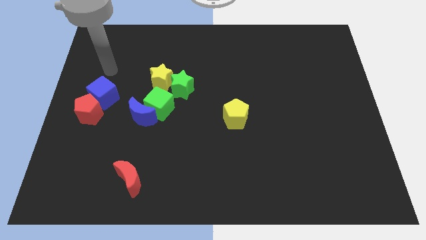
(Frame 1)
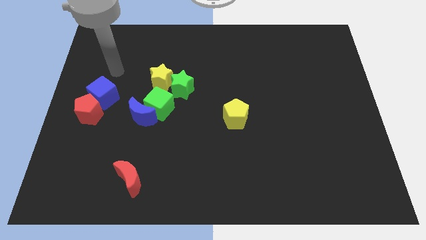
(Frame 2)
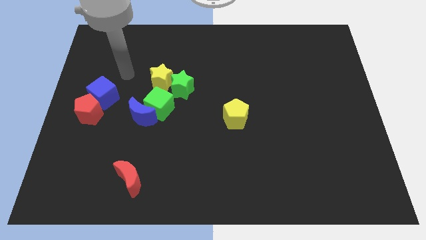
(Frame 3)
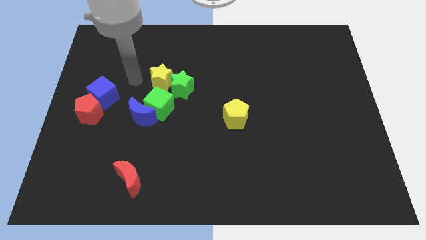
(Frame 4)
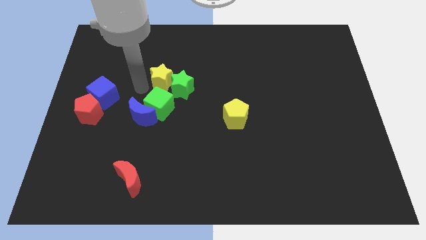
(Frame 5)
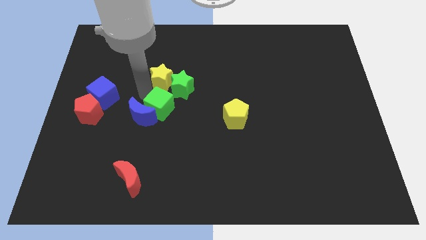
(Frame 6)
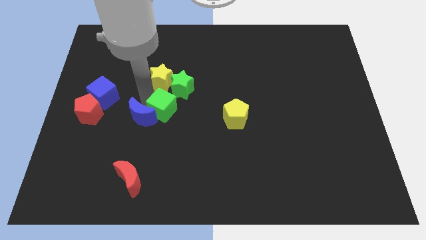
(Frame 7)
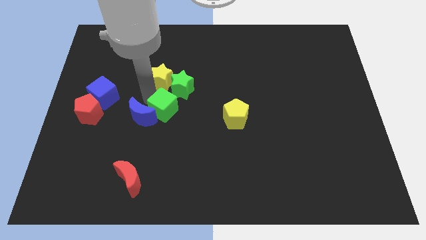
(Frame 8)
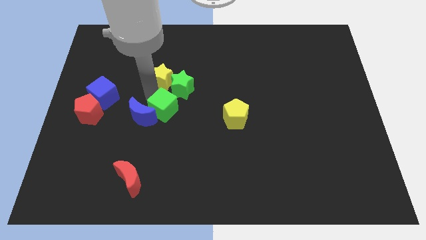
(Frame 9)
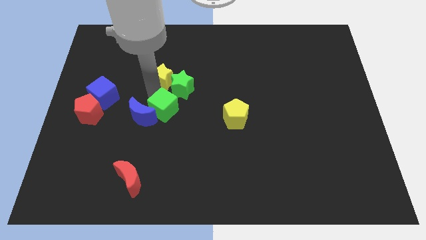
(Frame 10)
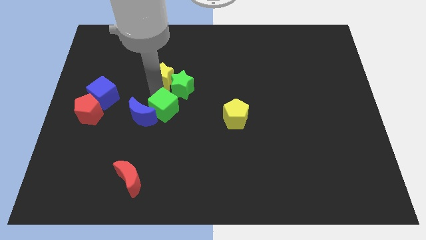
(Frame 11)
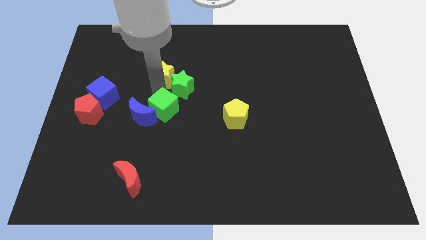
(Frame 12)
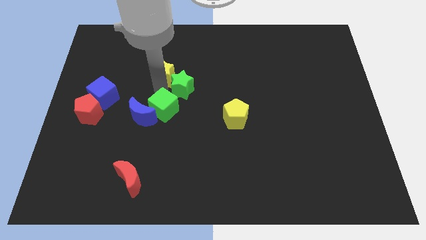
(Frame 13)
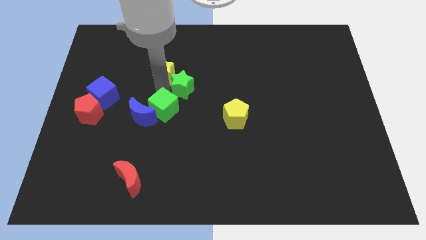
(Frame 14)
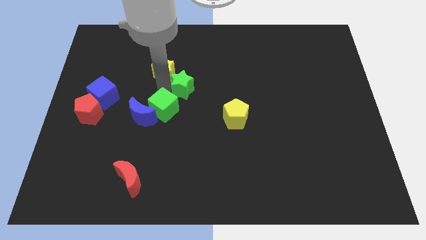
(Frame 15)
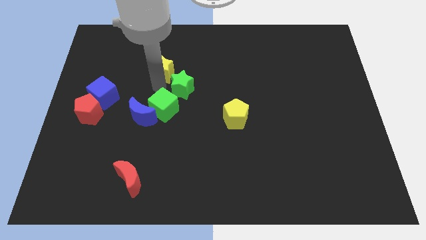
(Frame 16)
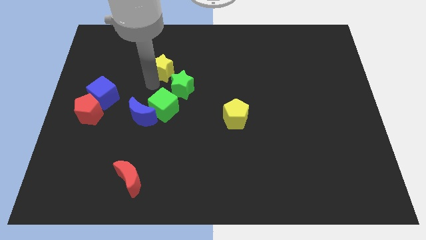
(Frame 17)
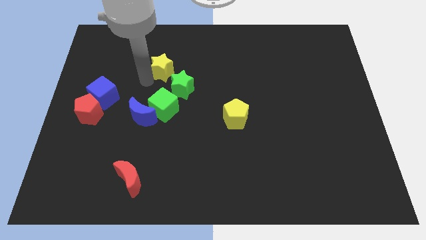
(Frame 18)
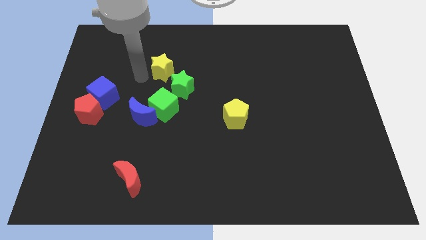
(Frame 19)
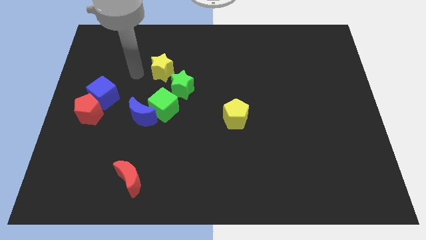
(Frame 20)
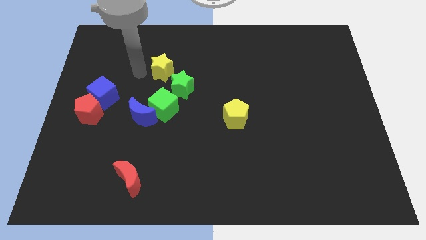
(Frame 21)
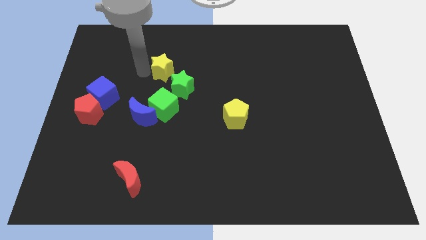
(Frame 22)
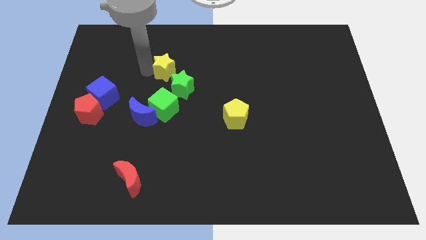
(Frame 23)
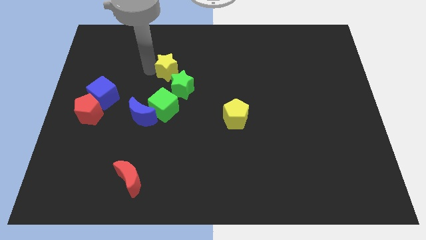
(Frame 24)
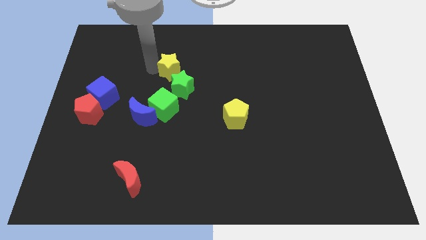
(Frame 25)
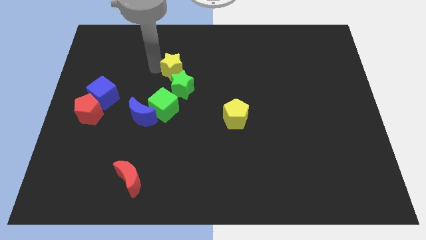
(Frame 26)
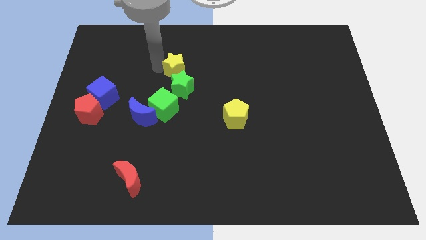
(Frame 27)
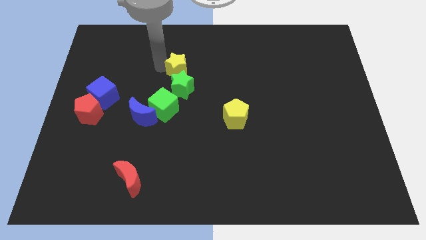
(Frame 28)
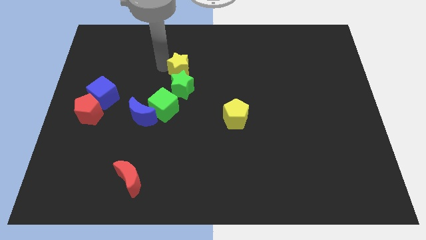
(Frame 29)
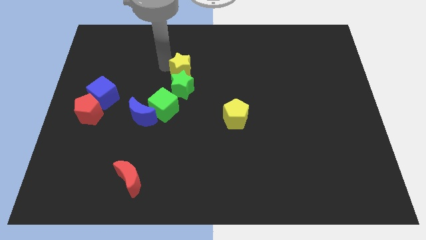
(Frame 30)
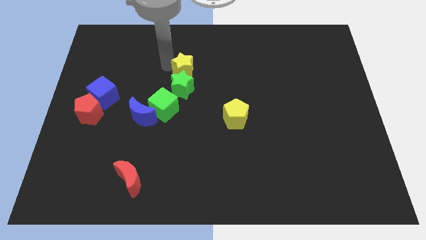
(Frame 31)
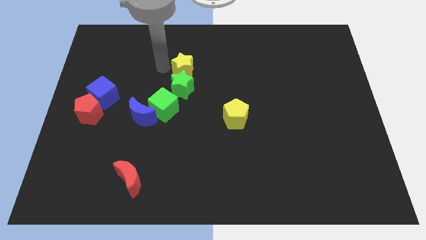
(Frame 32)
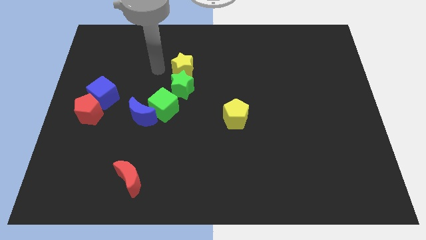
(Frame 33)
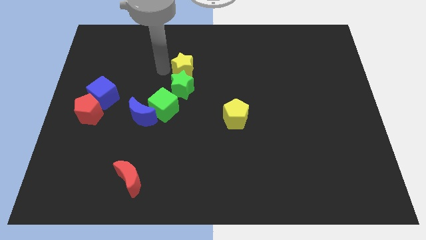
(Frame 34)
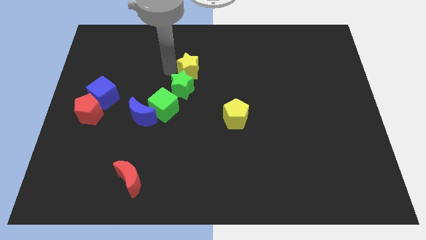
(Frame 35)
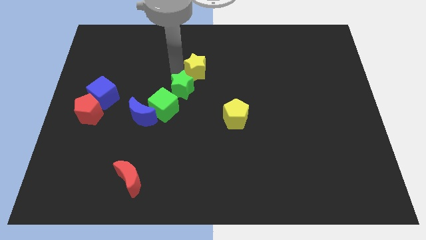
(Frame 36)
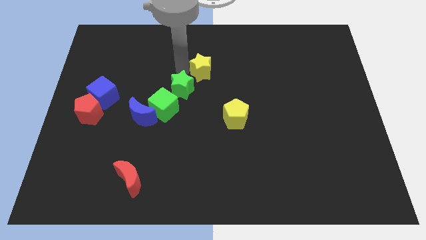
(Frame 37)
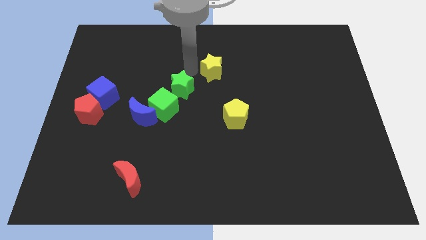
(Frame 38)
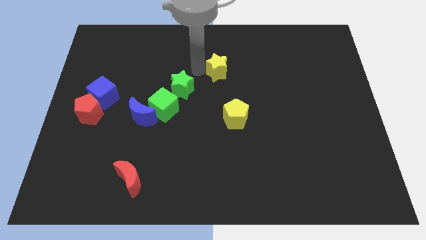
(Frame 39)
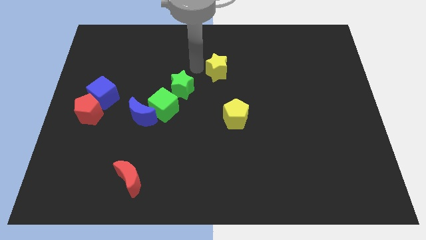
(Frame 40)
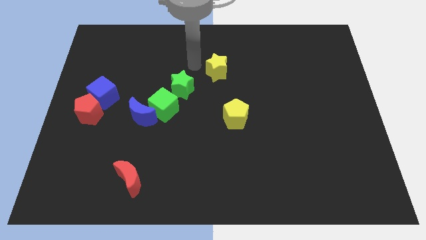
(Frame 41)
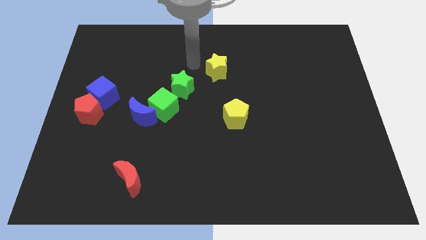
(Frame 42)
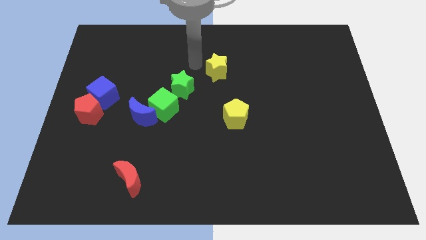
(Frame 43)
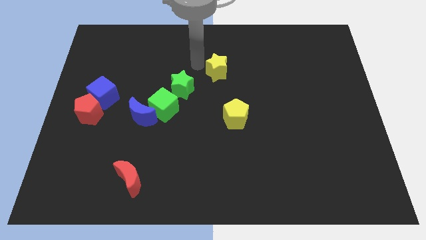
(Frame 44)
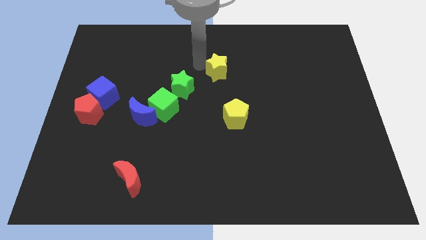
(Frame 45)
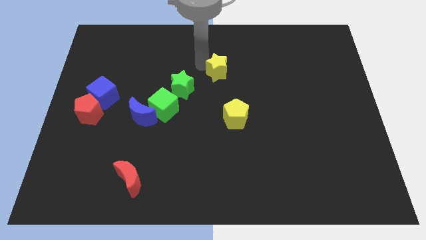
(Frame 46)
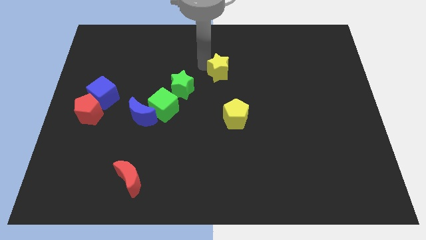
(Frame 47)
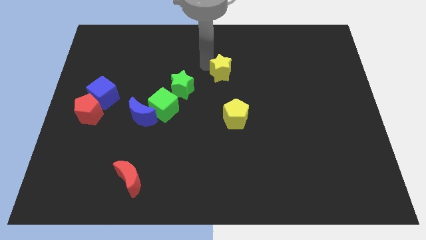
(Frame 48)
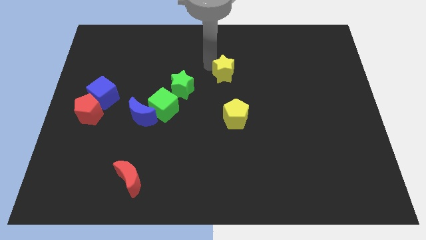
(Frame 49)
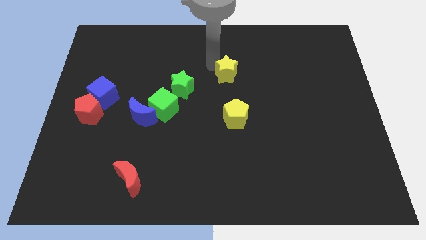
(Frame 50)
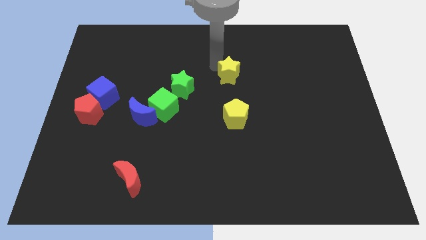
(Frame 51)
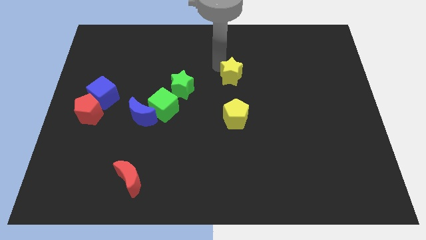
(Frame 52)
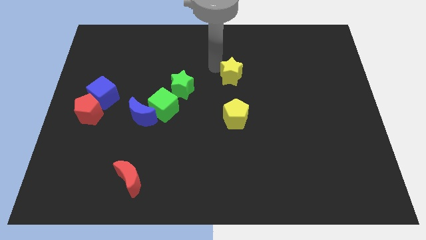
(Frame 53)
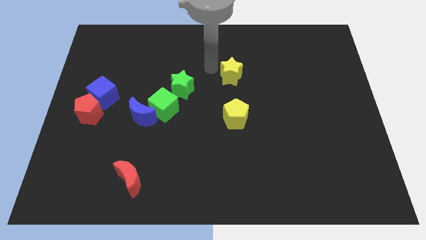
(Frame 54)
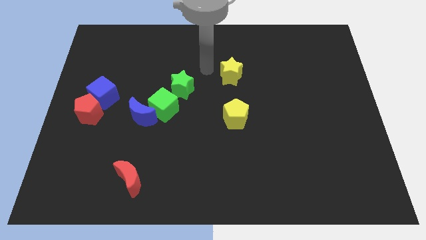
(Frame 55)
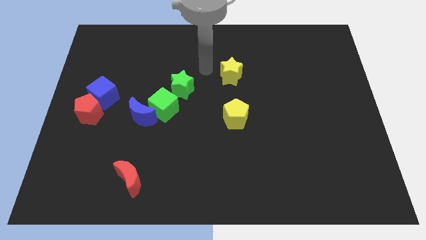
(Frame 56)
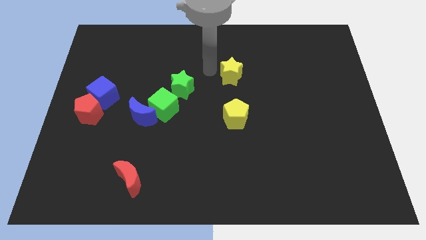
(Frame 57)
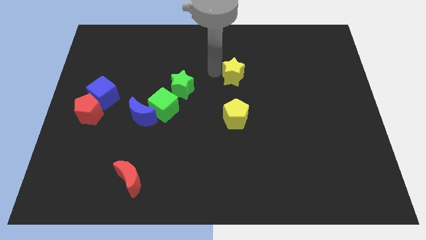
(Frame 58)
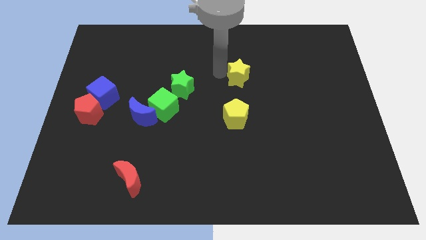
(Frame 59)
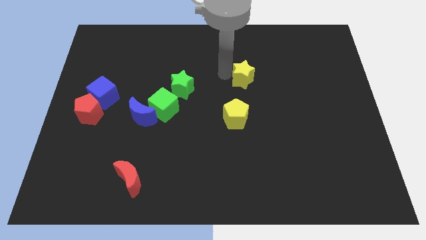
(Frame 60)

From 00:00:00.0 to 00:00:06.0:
push the yellow star to the right

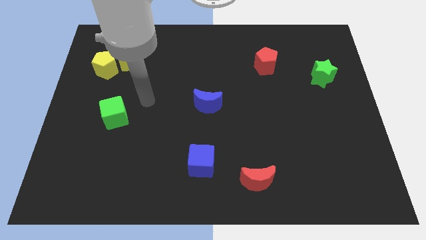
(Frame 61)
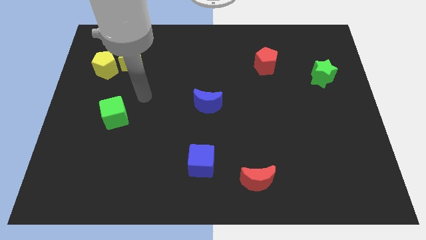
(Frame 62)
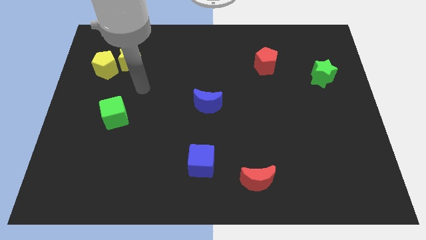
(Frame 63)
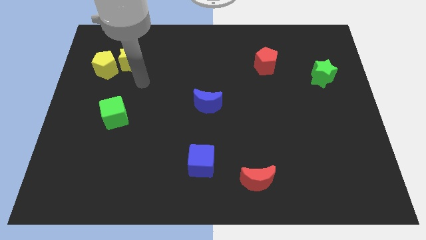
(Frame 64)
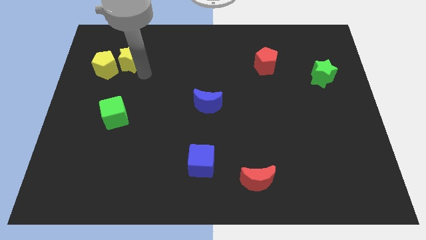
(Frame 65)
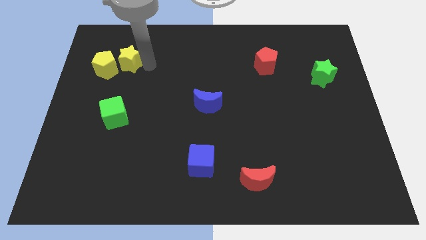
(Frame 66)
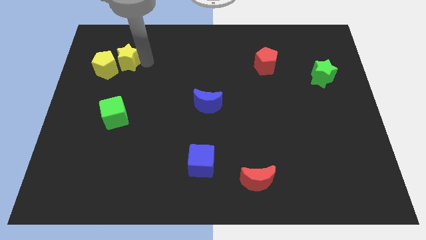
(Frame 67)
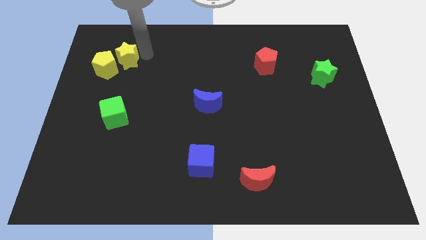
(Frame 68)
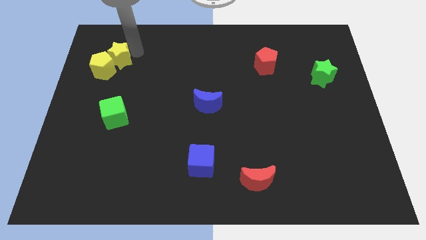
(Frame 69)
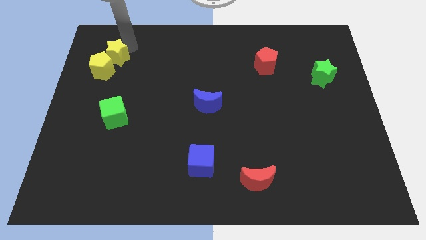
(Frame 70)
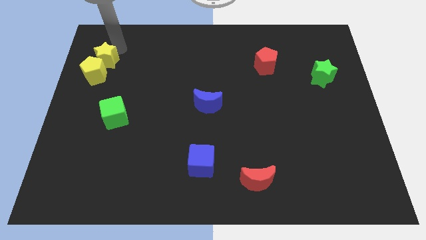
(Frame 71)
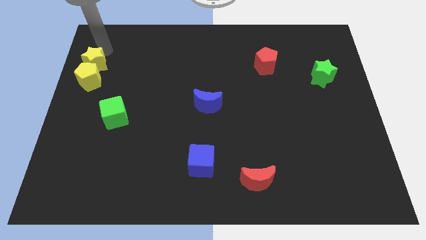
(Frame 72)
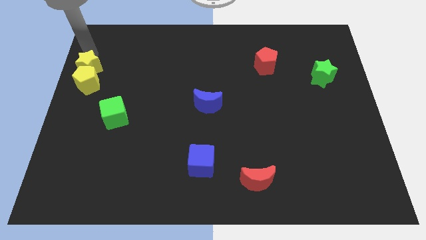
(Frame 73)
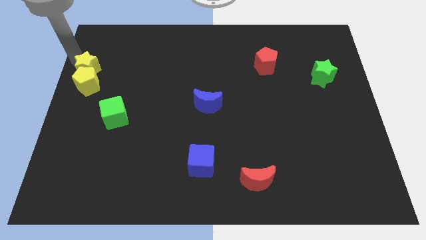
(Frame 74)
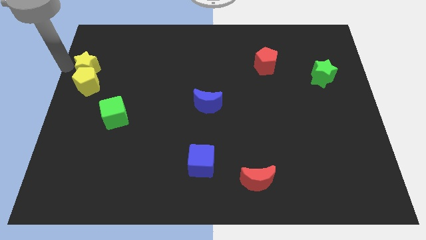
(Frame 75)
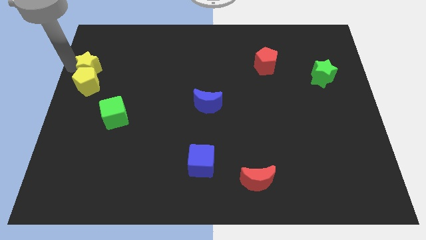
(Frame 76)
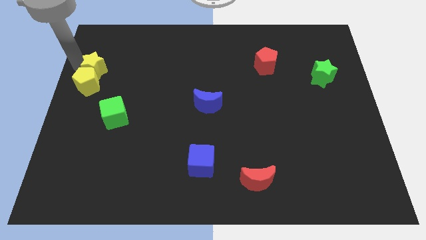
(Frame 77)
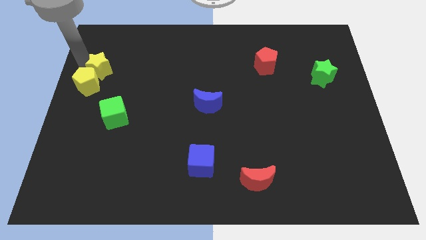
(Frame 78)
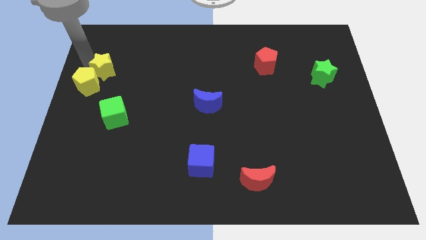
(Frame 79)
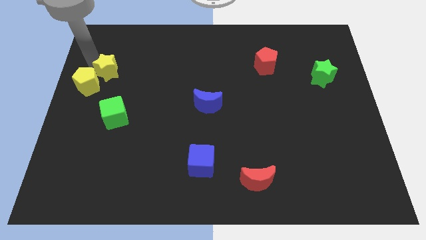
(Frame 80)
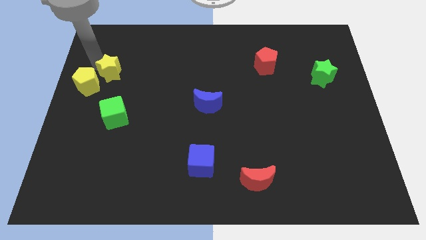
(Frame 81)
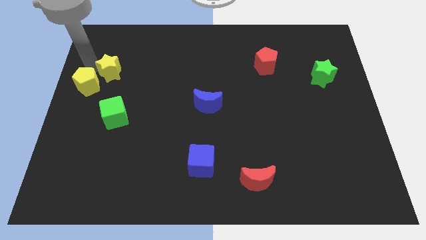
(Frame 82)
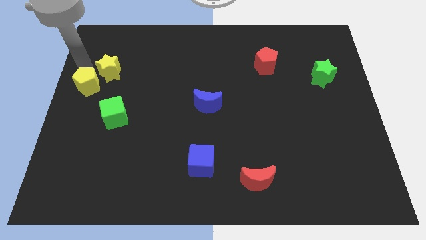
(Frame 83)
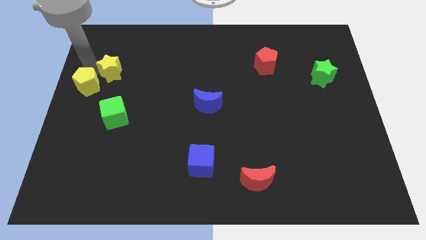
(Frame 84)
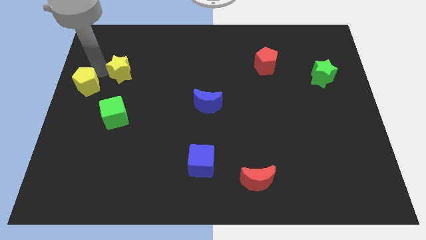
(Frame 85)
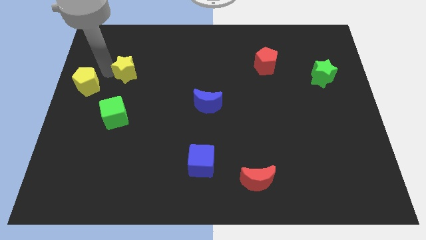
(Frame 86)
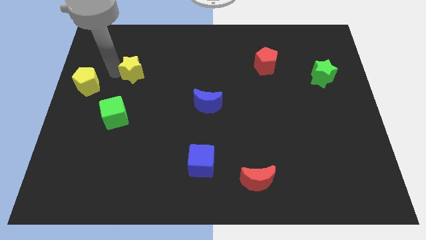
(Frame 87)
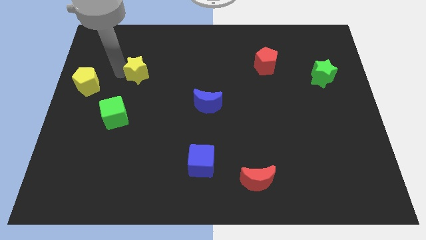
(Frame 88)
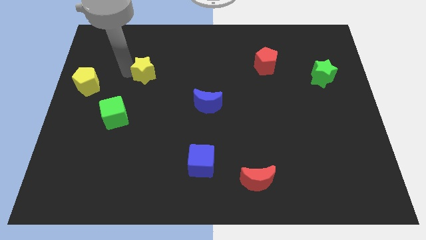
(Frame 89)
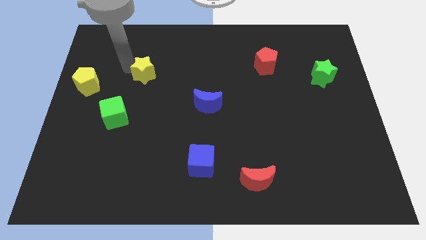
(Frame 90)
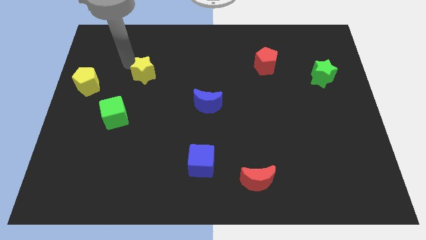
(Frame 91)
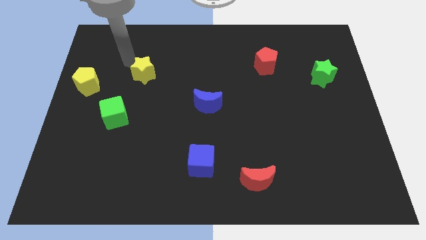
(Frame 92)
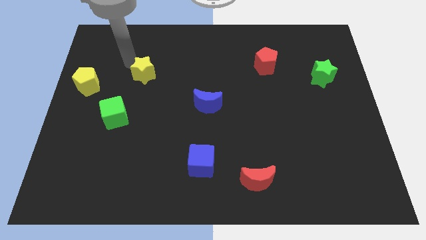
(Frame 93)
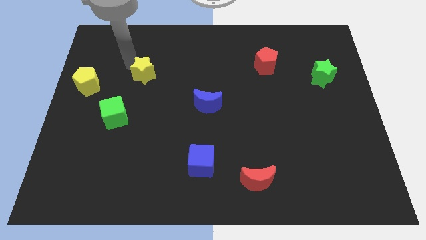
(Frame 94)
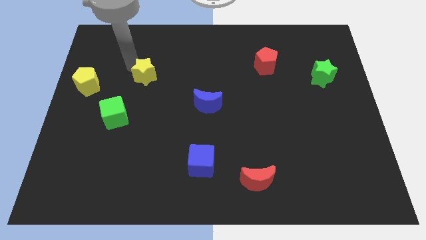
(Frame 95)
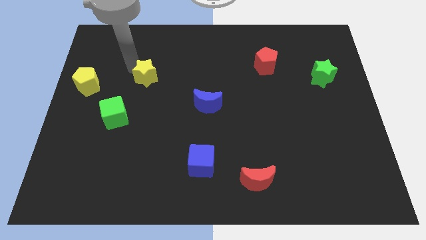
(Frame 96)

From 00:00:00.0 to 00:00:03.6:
push the yellow star down and then to the right a bit
